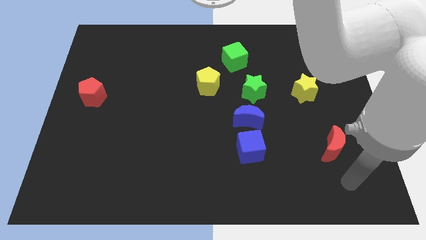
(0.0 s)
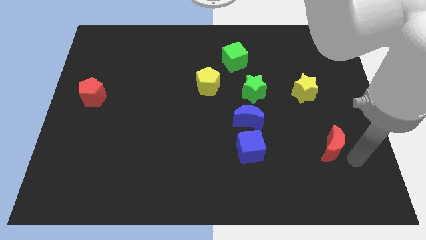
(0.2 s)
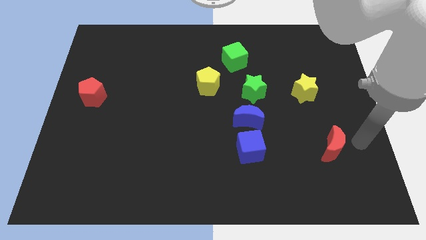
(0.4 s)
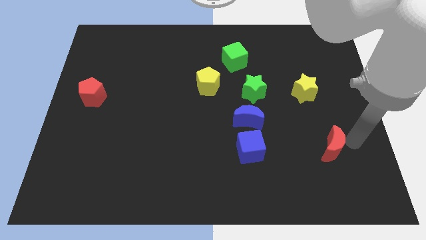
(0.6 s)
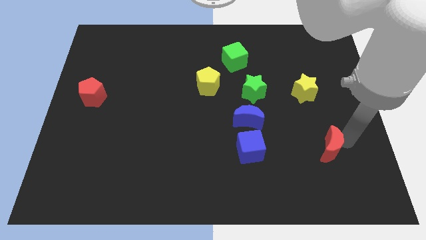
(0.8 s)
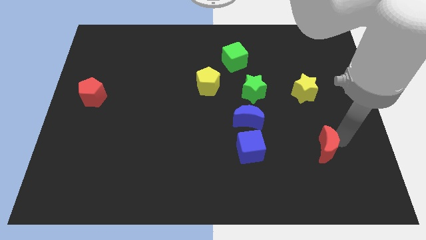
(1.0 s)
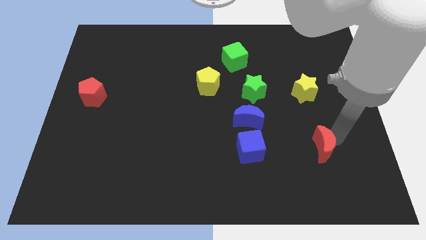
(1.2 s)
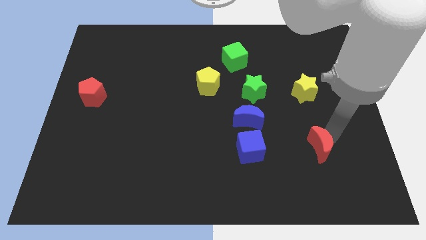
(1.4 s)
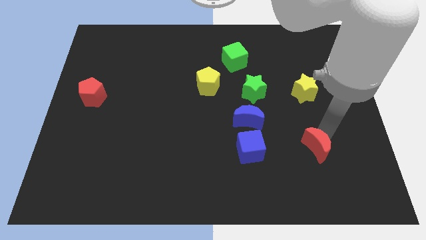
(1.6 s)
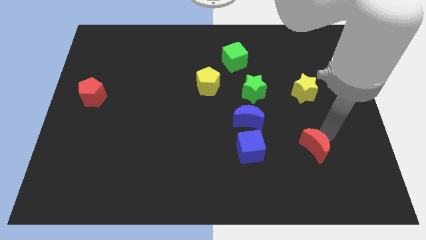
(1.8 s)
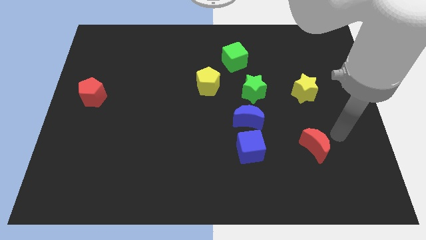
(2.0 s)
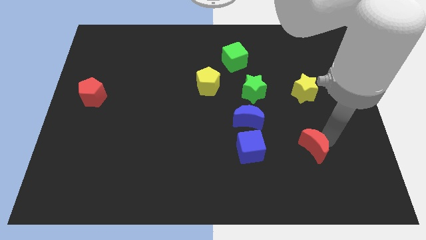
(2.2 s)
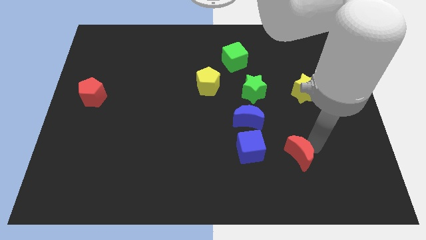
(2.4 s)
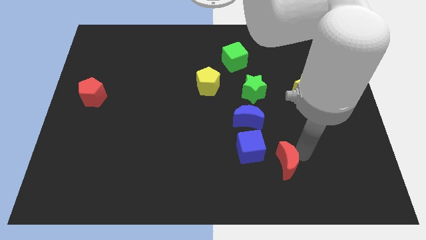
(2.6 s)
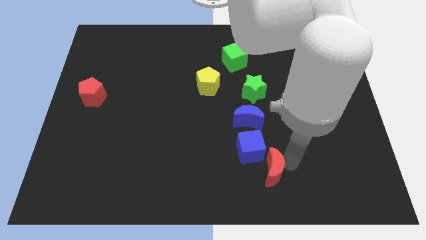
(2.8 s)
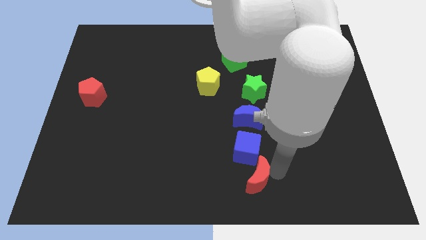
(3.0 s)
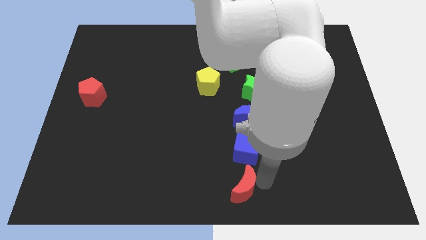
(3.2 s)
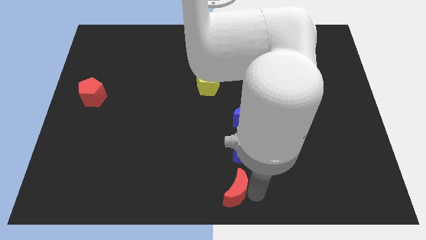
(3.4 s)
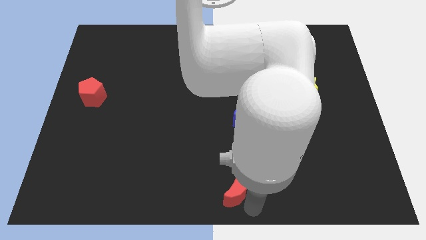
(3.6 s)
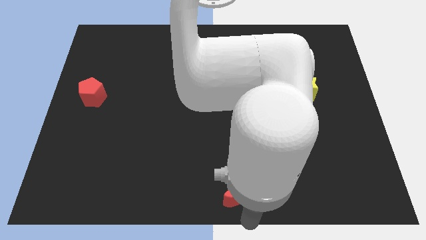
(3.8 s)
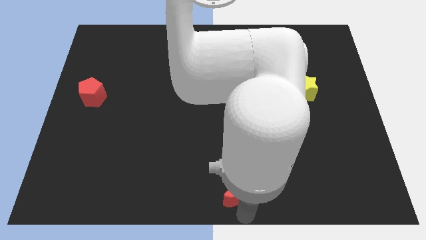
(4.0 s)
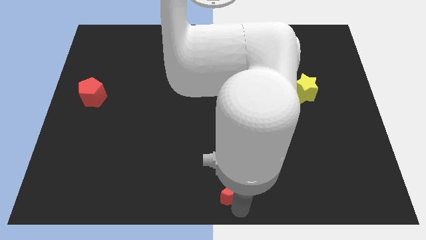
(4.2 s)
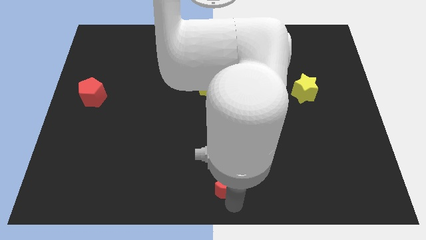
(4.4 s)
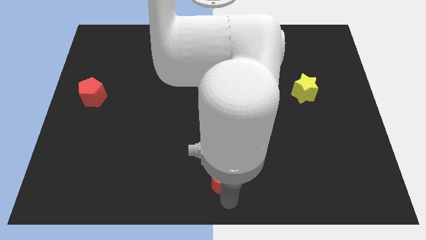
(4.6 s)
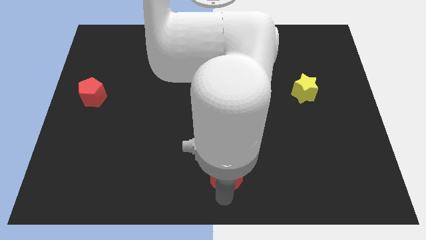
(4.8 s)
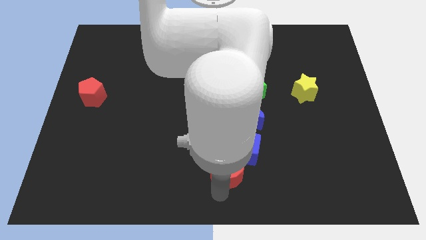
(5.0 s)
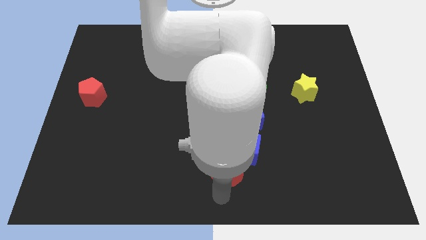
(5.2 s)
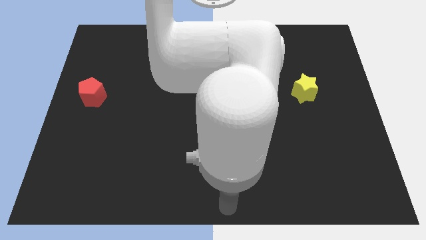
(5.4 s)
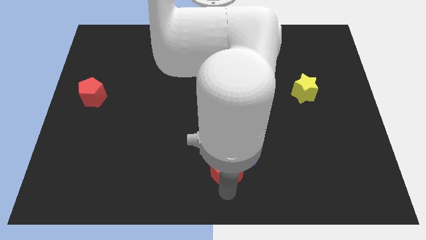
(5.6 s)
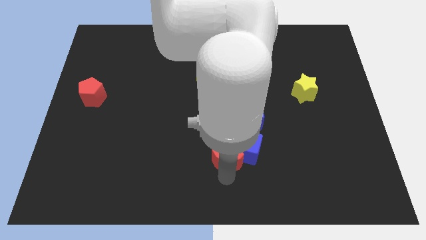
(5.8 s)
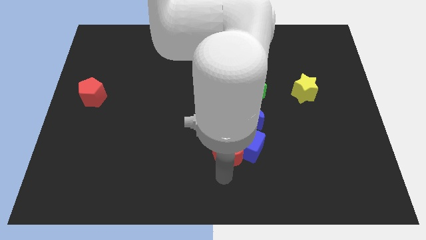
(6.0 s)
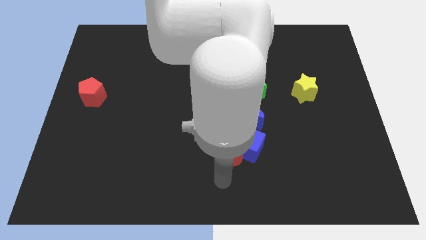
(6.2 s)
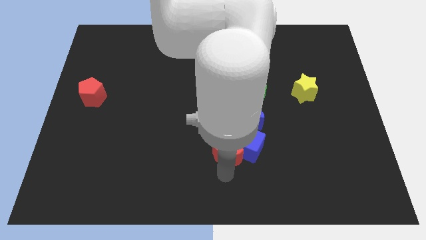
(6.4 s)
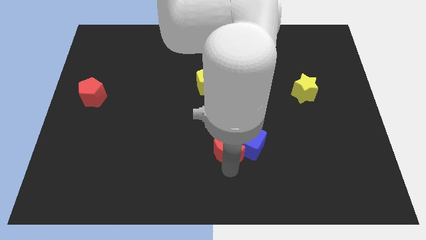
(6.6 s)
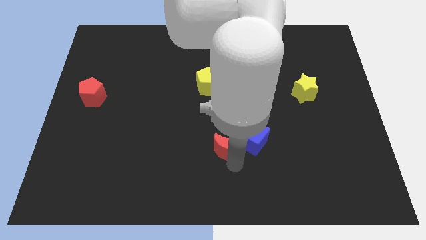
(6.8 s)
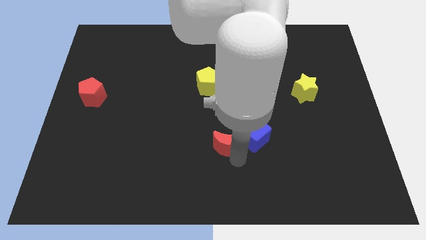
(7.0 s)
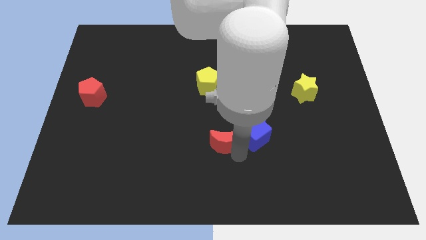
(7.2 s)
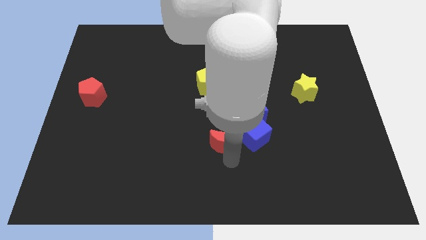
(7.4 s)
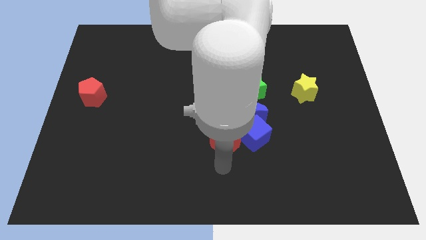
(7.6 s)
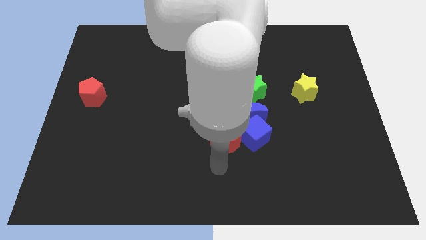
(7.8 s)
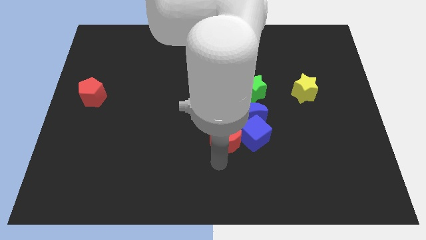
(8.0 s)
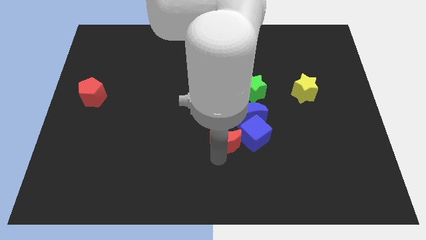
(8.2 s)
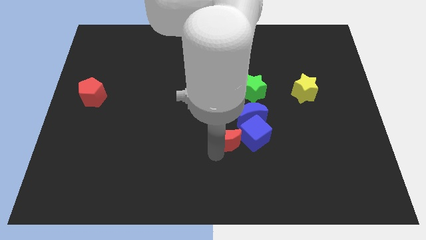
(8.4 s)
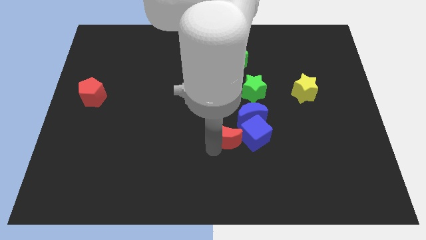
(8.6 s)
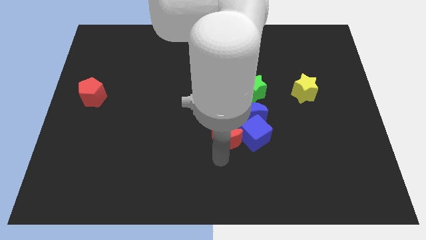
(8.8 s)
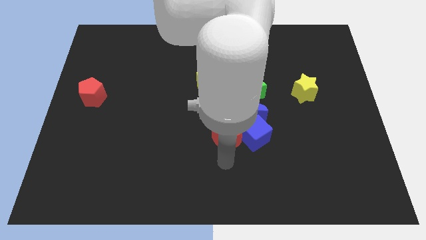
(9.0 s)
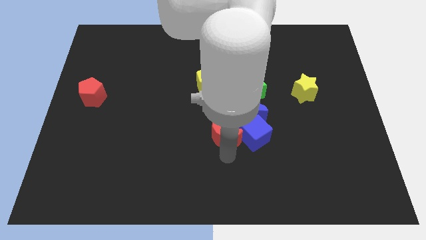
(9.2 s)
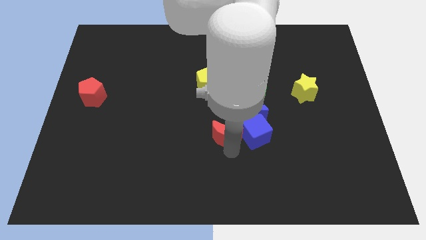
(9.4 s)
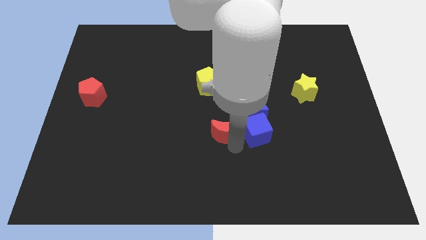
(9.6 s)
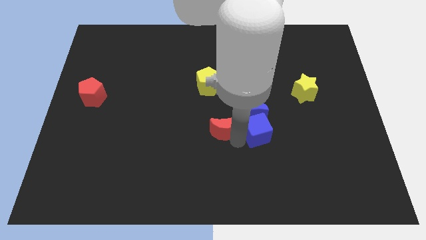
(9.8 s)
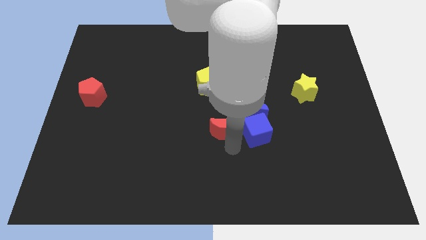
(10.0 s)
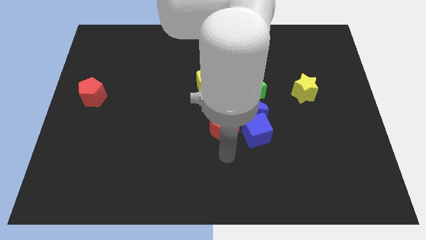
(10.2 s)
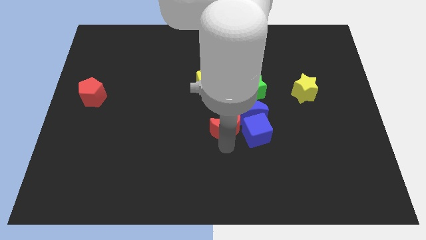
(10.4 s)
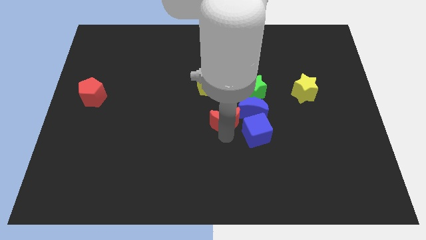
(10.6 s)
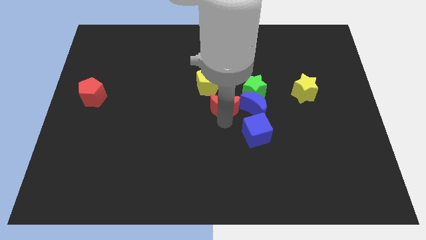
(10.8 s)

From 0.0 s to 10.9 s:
move the red moon diagonally upwards and left

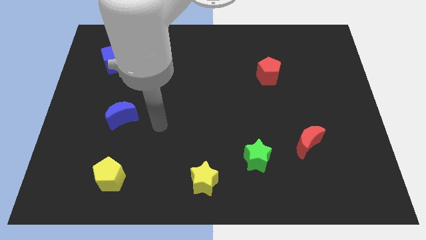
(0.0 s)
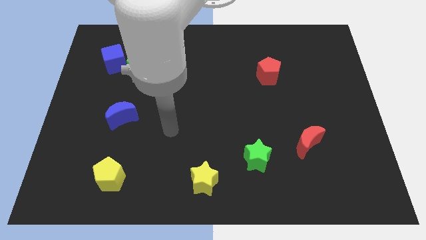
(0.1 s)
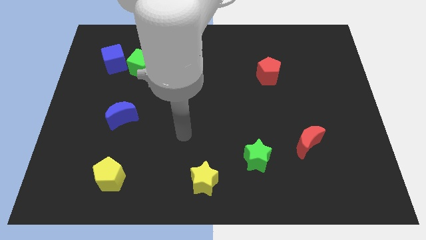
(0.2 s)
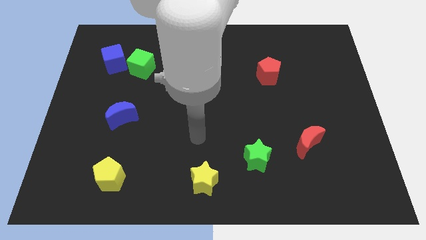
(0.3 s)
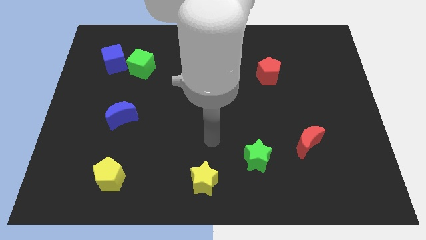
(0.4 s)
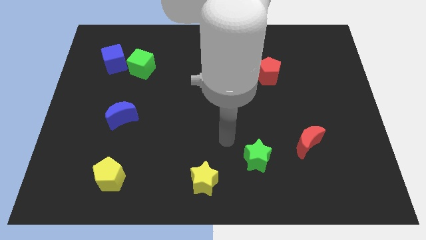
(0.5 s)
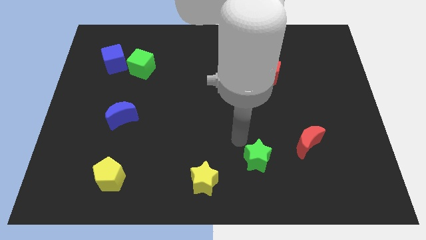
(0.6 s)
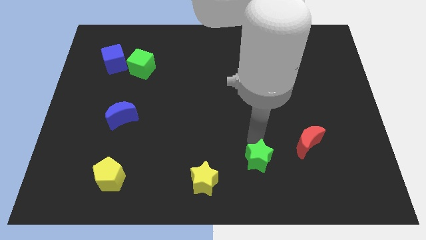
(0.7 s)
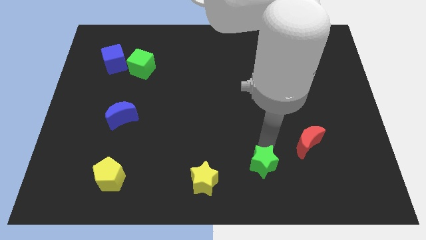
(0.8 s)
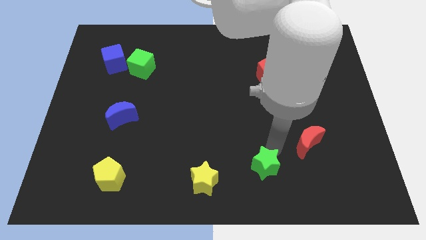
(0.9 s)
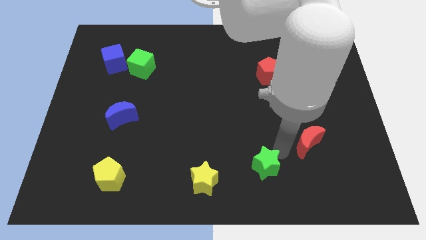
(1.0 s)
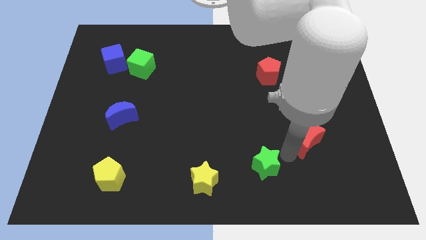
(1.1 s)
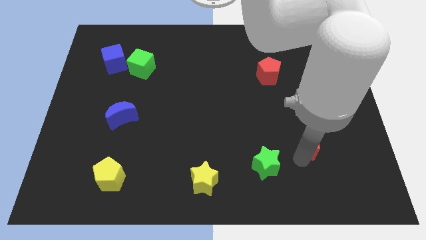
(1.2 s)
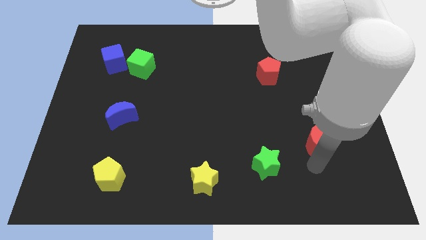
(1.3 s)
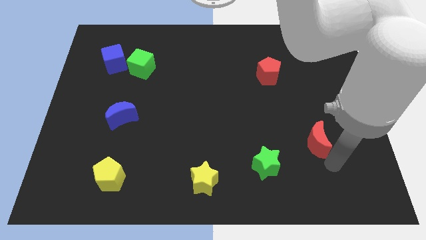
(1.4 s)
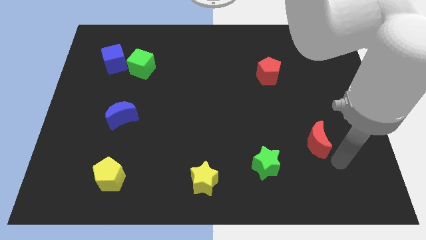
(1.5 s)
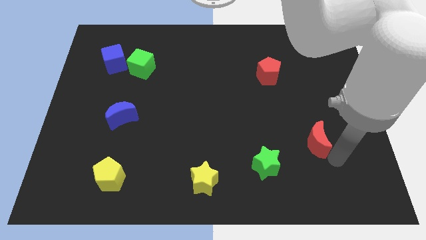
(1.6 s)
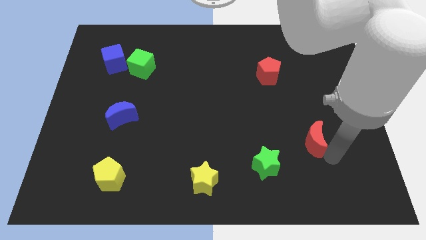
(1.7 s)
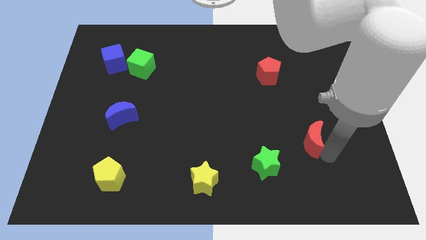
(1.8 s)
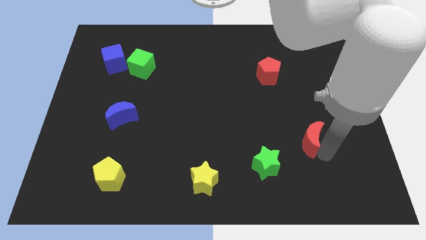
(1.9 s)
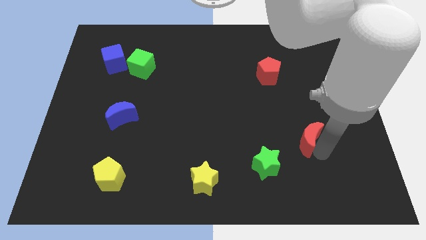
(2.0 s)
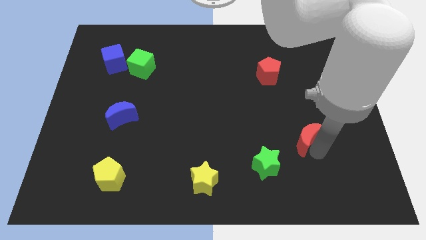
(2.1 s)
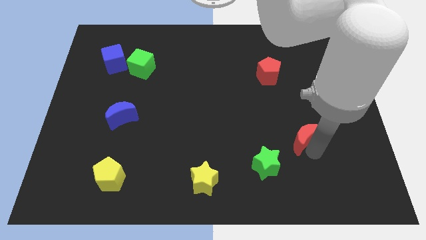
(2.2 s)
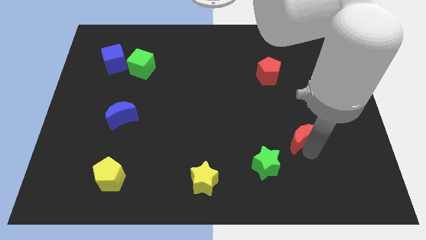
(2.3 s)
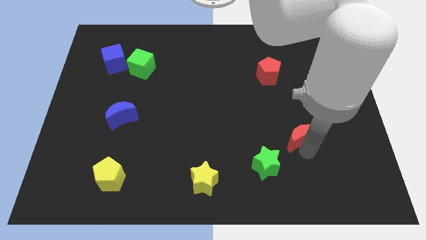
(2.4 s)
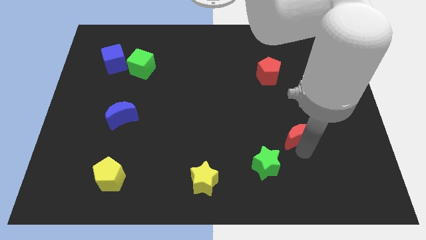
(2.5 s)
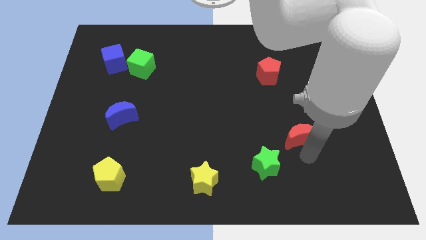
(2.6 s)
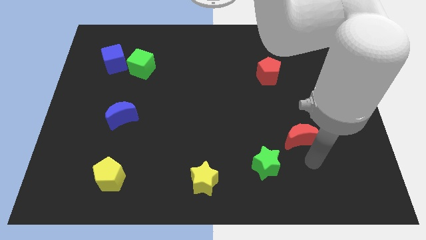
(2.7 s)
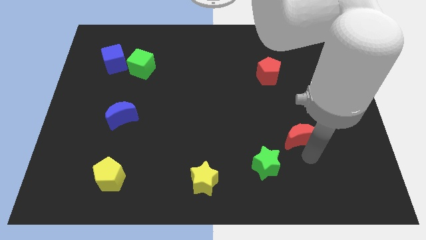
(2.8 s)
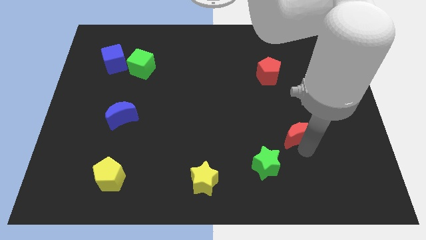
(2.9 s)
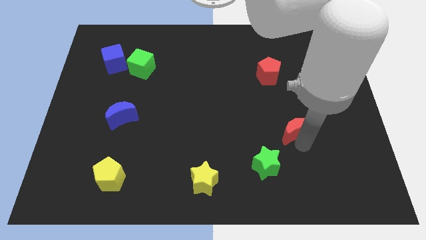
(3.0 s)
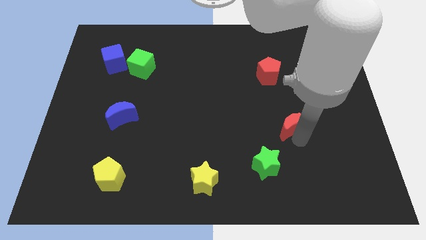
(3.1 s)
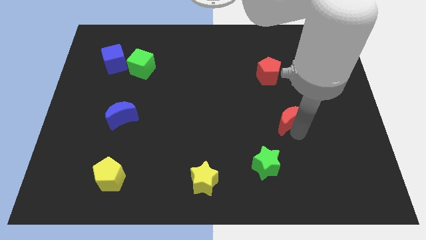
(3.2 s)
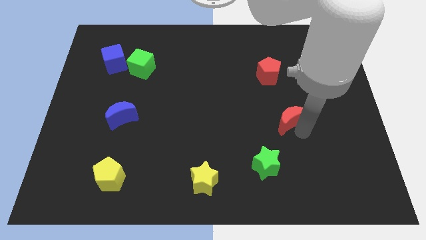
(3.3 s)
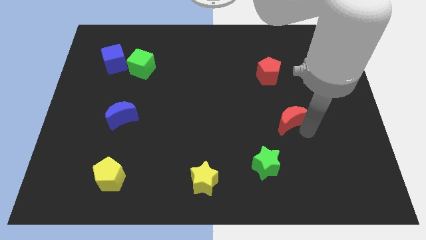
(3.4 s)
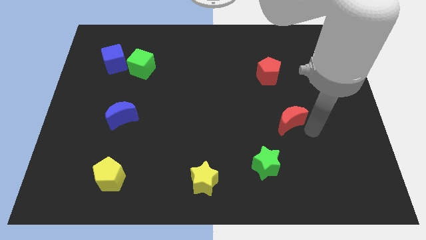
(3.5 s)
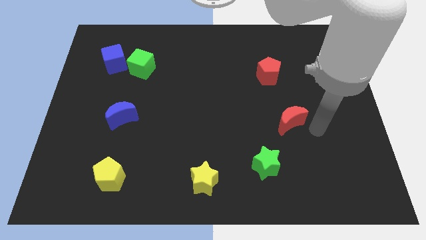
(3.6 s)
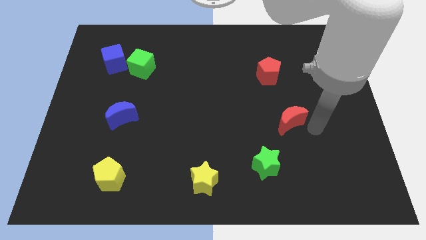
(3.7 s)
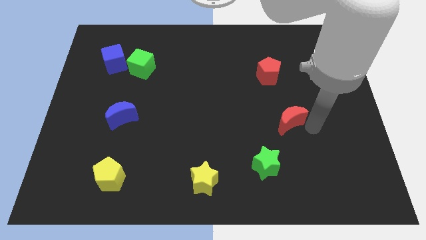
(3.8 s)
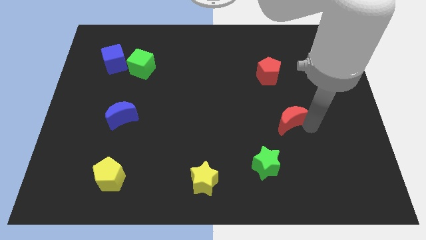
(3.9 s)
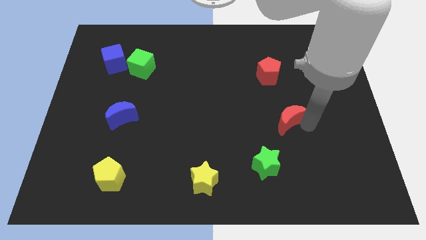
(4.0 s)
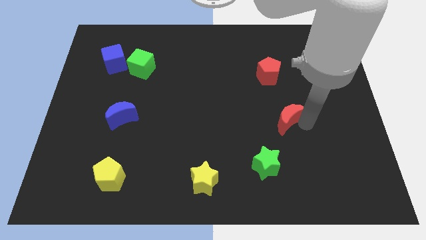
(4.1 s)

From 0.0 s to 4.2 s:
move the red moon somewhat diagonally up and left
